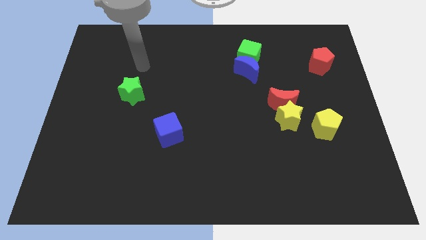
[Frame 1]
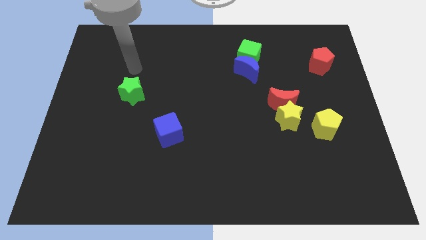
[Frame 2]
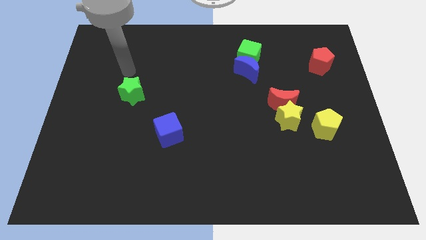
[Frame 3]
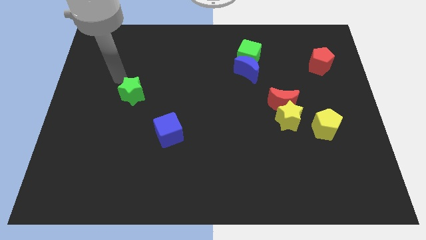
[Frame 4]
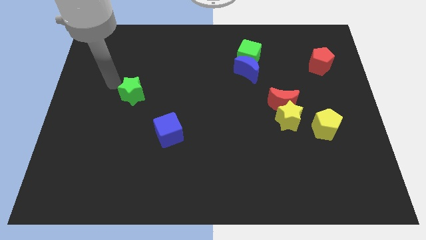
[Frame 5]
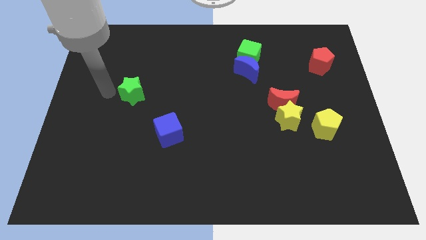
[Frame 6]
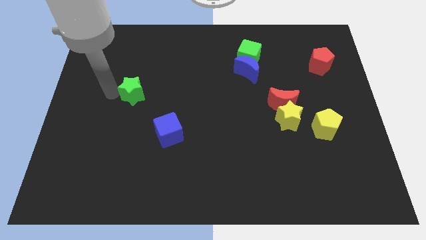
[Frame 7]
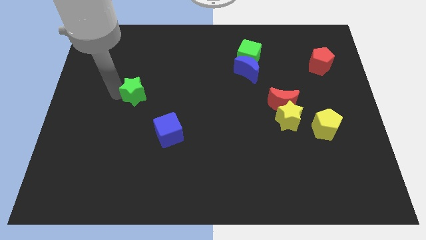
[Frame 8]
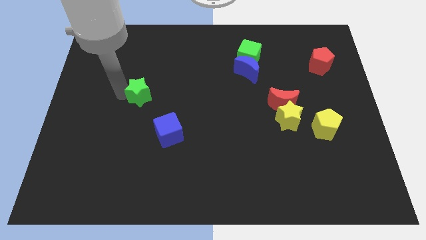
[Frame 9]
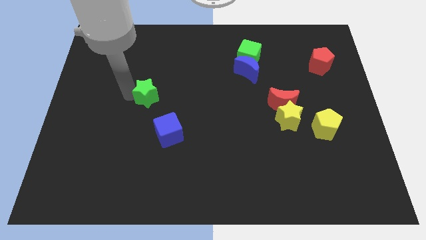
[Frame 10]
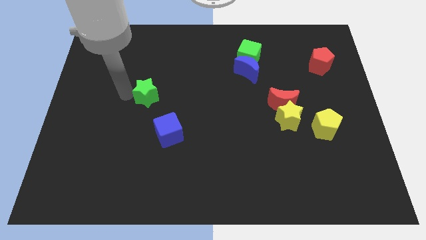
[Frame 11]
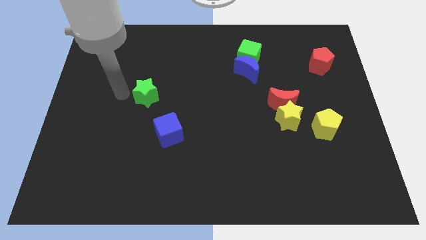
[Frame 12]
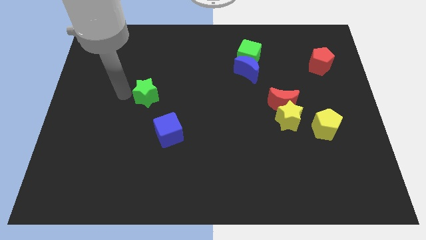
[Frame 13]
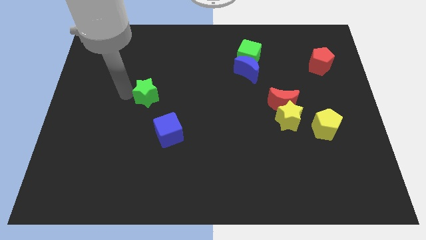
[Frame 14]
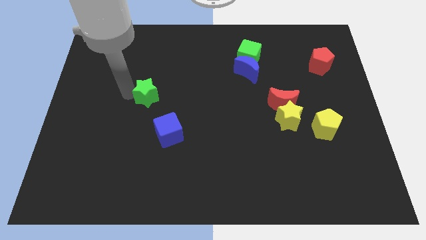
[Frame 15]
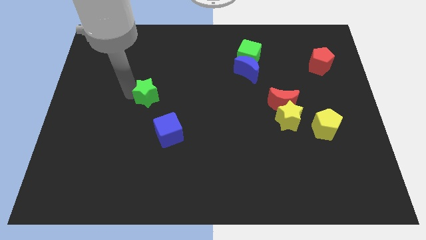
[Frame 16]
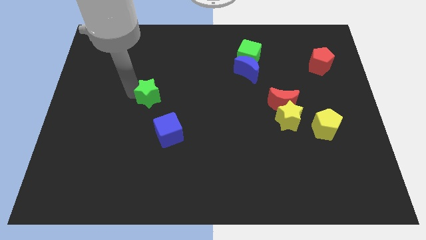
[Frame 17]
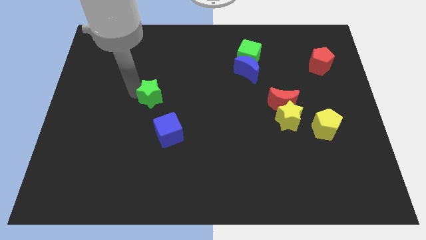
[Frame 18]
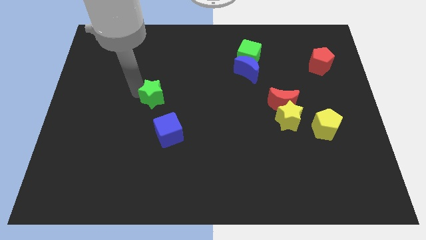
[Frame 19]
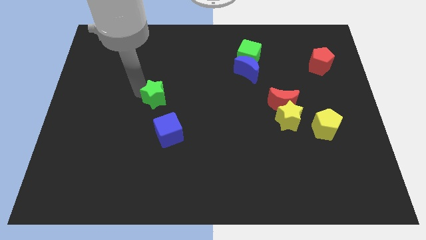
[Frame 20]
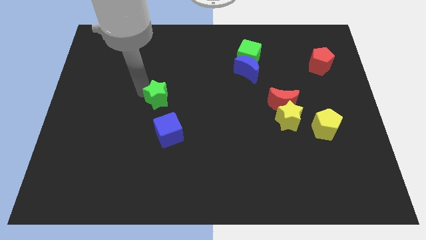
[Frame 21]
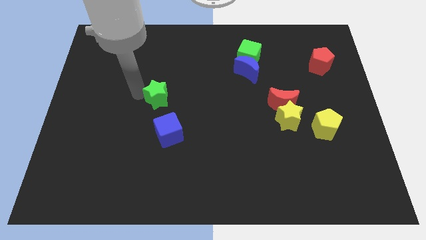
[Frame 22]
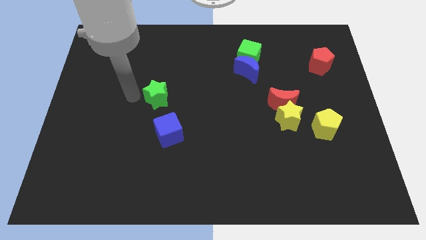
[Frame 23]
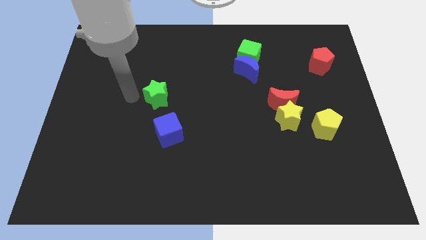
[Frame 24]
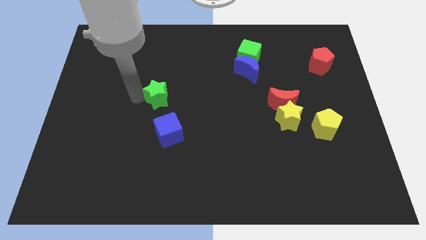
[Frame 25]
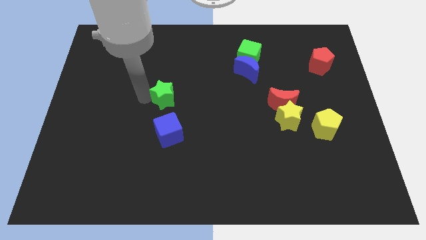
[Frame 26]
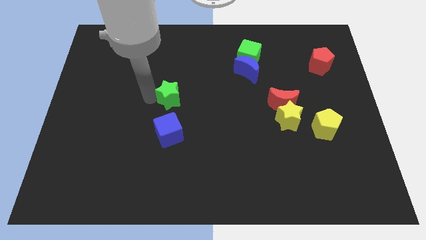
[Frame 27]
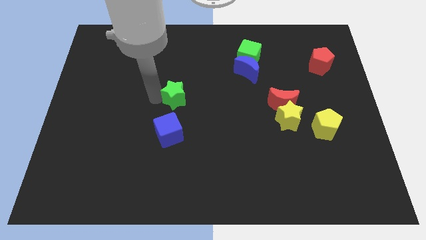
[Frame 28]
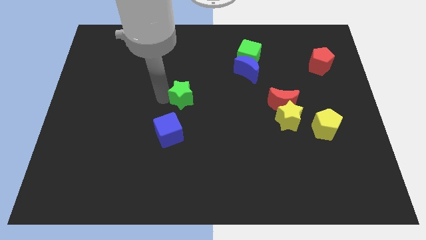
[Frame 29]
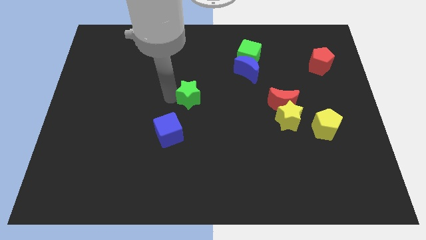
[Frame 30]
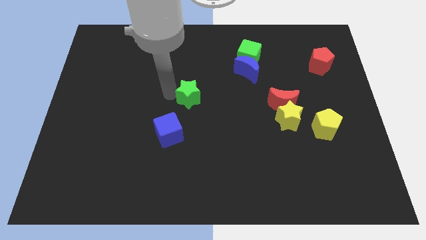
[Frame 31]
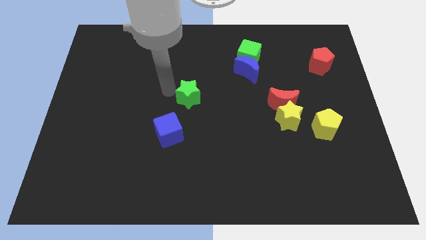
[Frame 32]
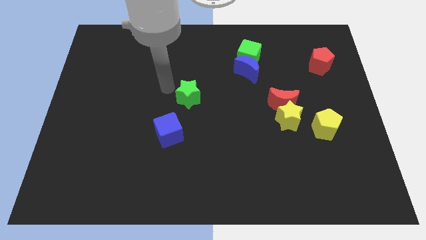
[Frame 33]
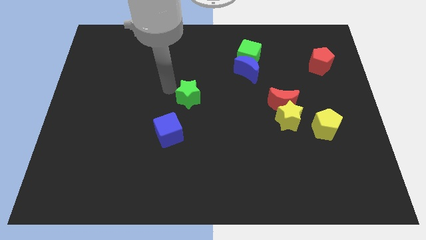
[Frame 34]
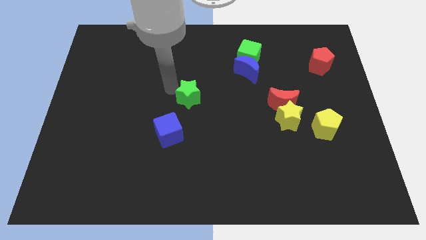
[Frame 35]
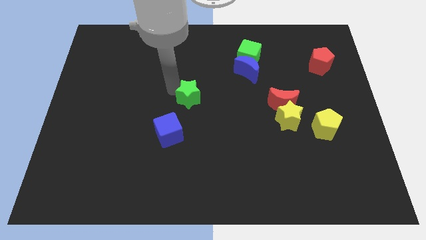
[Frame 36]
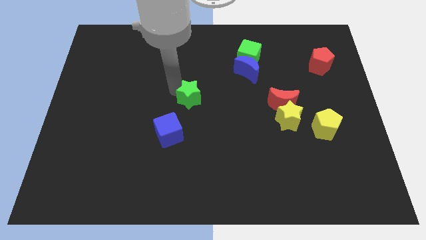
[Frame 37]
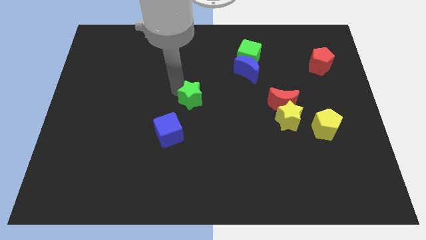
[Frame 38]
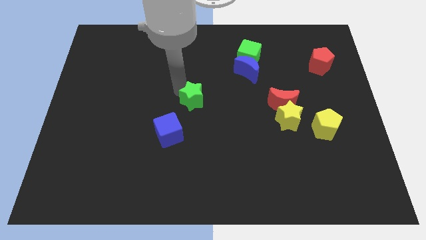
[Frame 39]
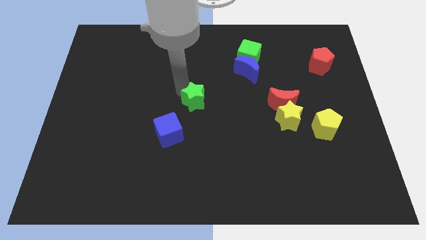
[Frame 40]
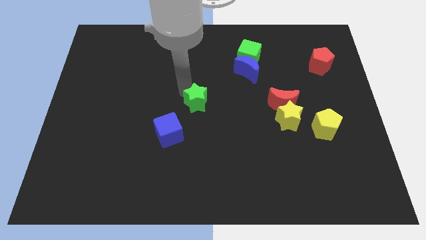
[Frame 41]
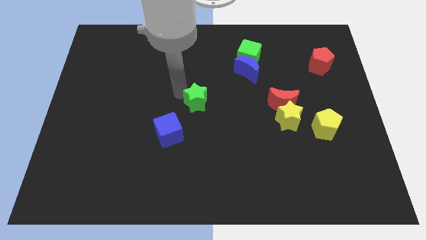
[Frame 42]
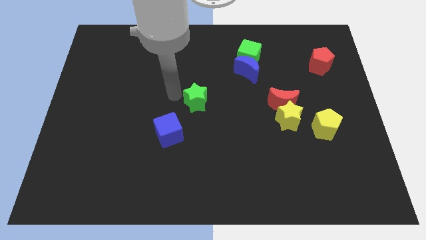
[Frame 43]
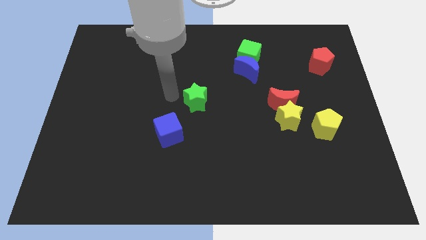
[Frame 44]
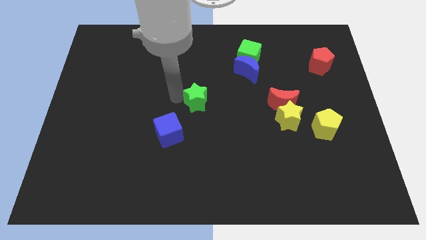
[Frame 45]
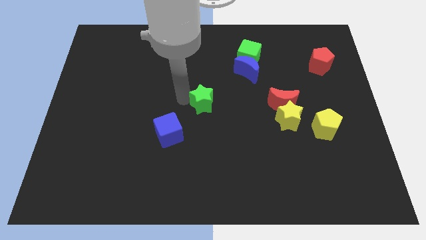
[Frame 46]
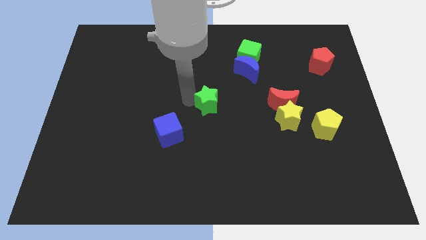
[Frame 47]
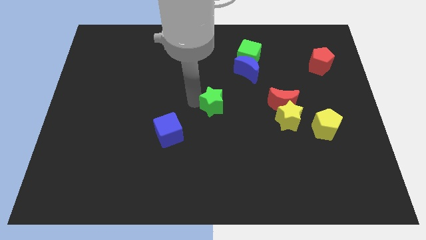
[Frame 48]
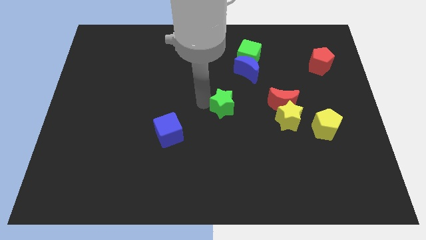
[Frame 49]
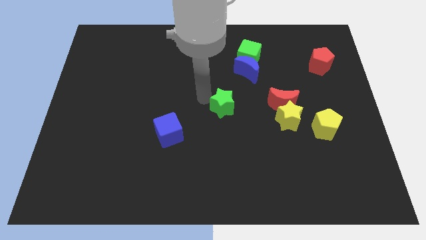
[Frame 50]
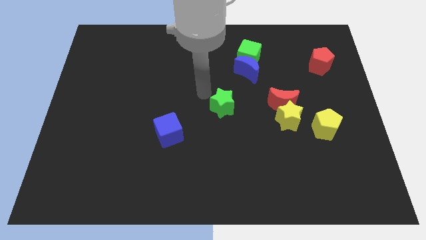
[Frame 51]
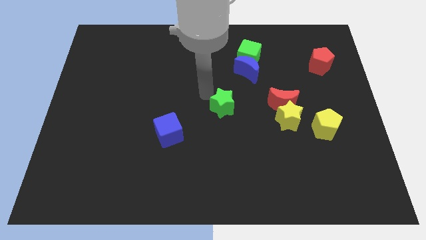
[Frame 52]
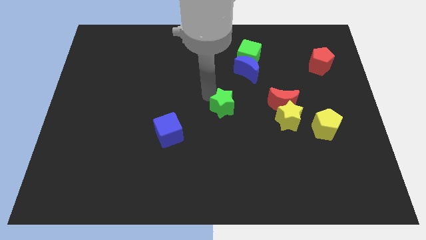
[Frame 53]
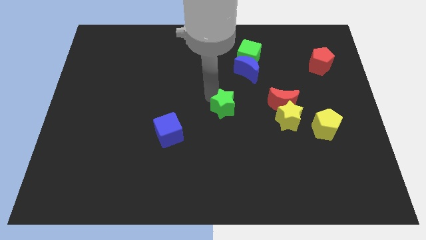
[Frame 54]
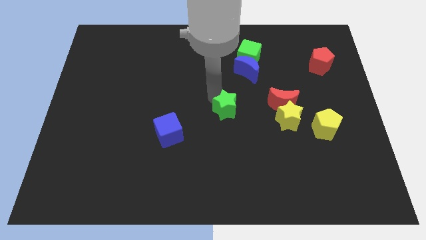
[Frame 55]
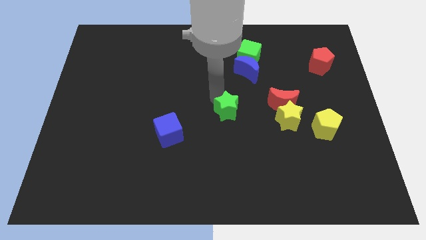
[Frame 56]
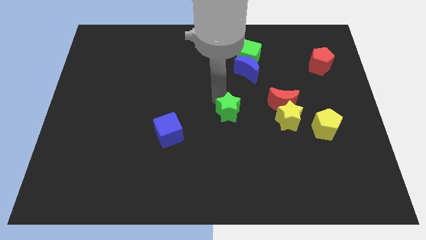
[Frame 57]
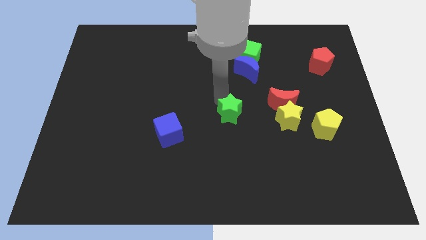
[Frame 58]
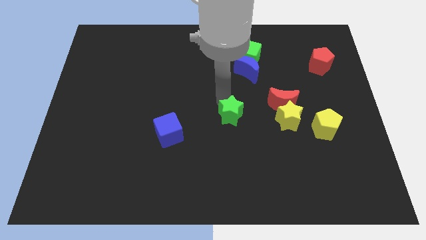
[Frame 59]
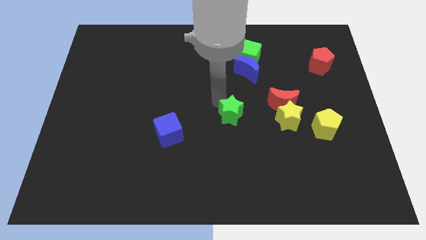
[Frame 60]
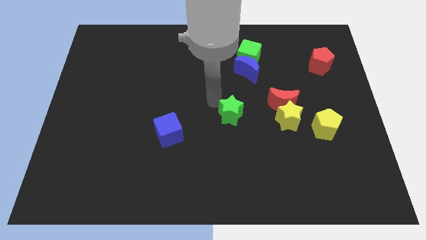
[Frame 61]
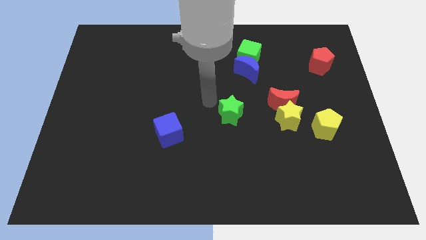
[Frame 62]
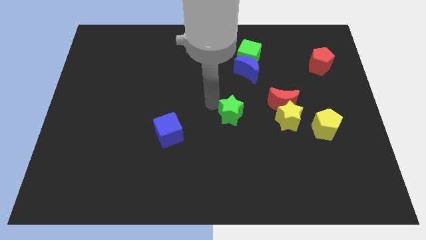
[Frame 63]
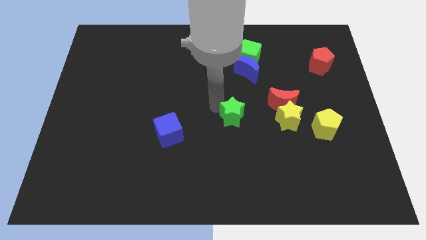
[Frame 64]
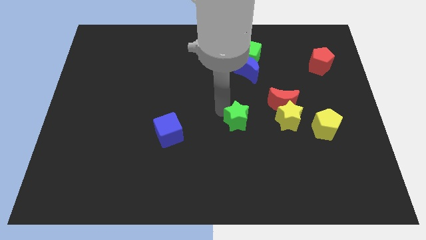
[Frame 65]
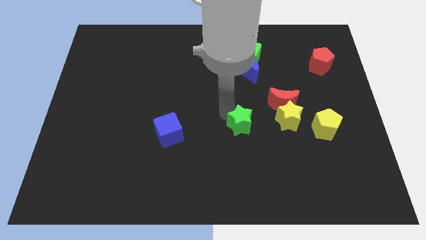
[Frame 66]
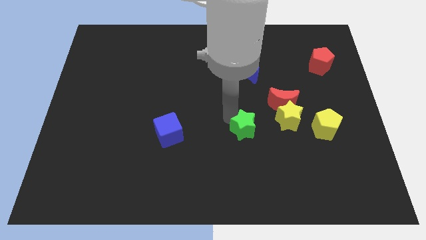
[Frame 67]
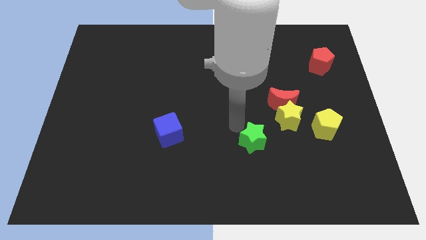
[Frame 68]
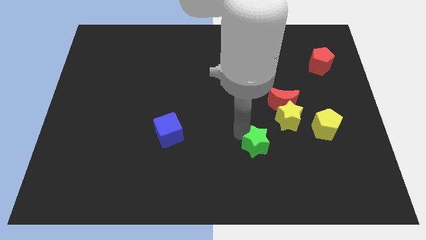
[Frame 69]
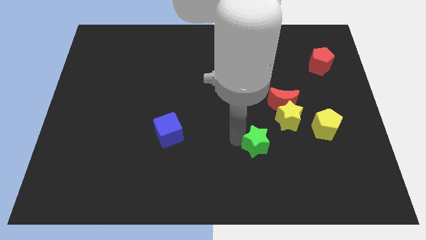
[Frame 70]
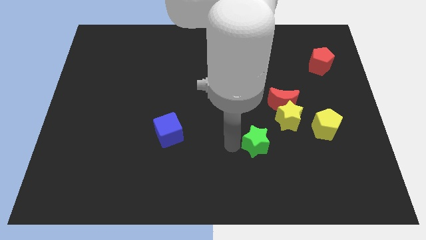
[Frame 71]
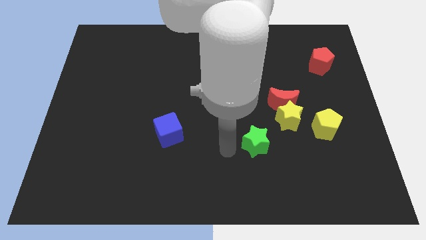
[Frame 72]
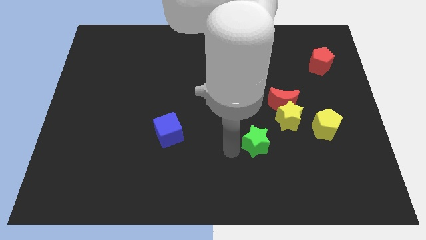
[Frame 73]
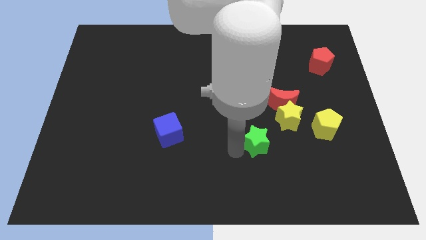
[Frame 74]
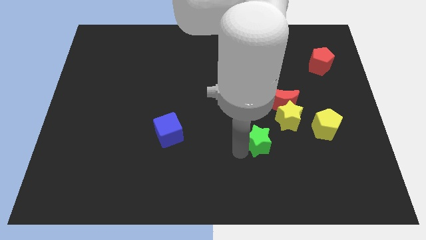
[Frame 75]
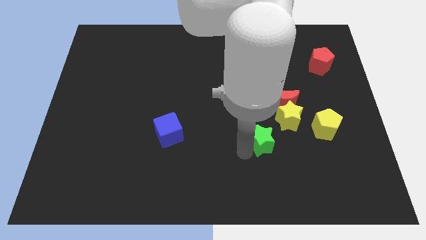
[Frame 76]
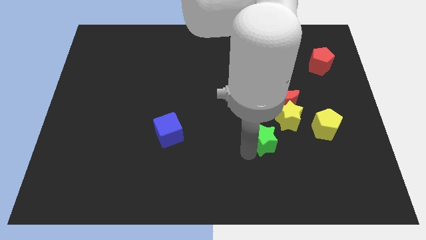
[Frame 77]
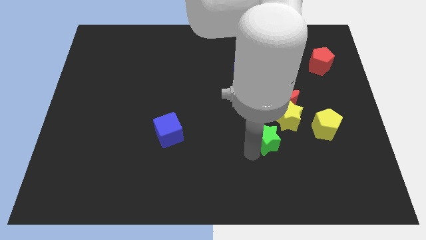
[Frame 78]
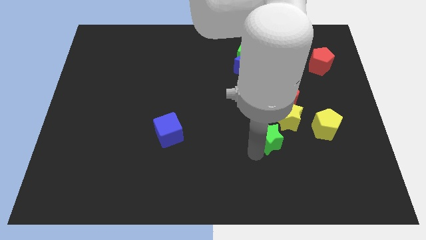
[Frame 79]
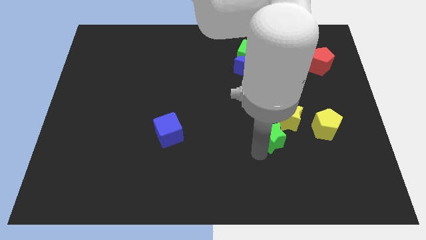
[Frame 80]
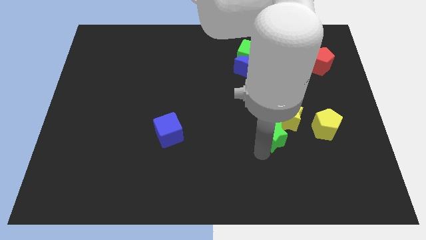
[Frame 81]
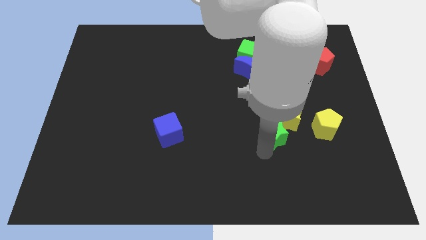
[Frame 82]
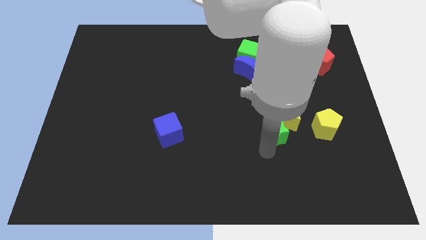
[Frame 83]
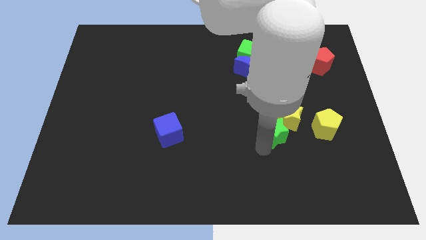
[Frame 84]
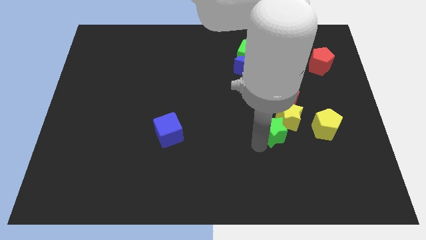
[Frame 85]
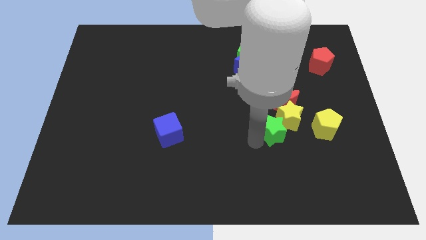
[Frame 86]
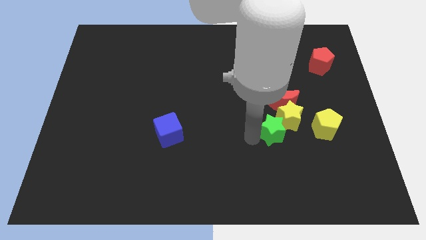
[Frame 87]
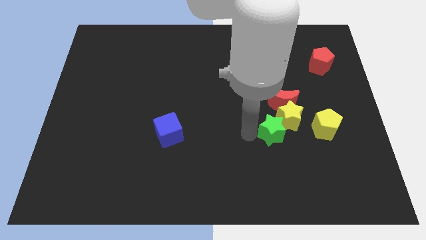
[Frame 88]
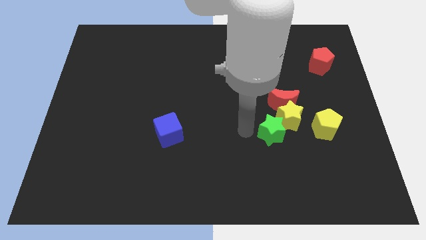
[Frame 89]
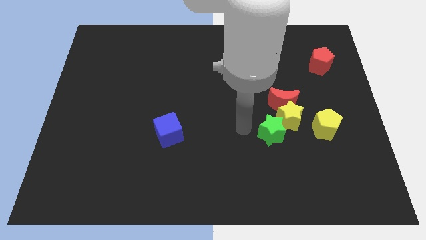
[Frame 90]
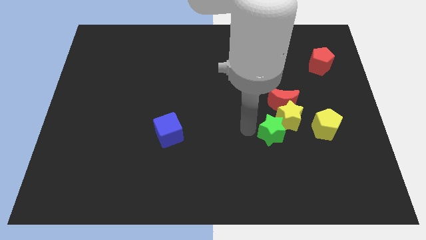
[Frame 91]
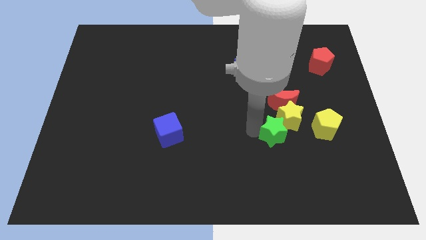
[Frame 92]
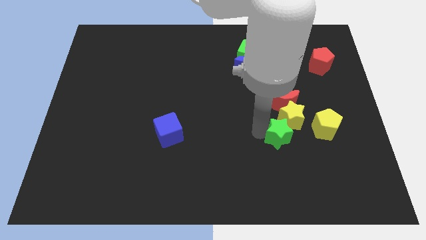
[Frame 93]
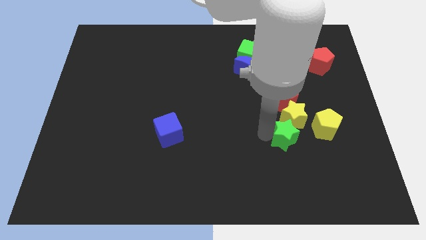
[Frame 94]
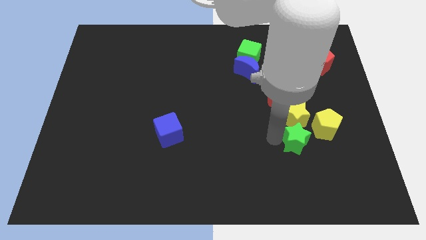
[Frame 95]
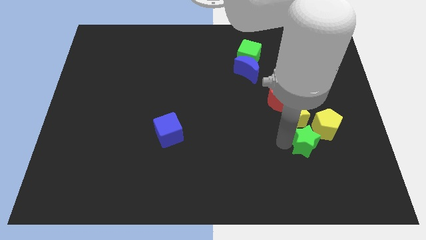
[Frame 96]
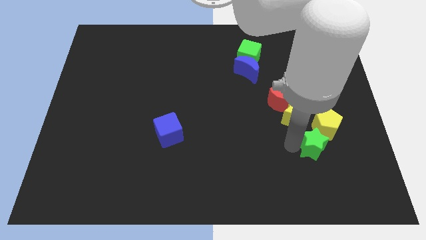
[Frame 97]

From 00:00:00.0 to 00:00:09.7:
push the green star towards the yellow pentagon
